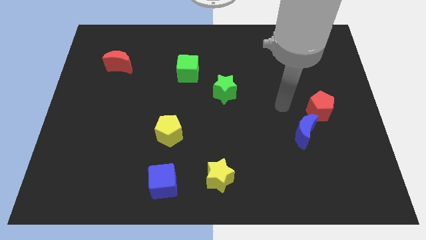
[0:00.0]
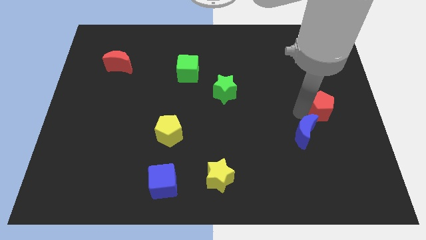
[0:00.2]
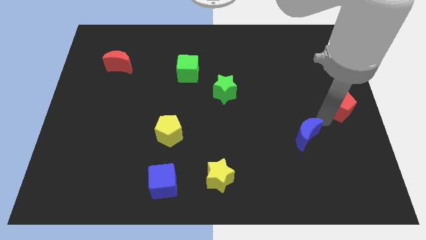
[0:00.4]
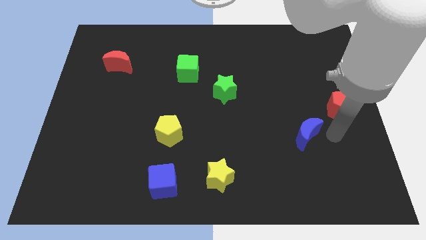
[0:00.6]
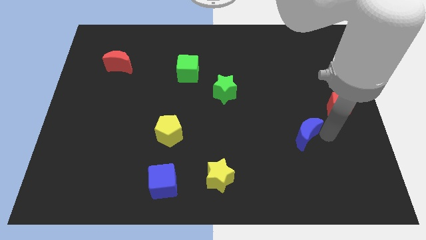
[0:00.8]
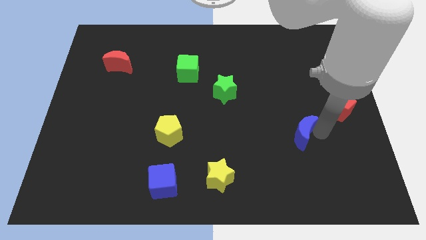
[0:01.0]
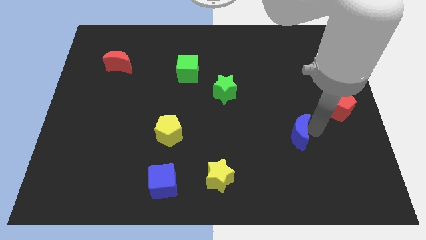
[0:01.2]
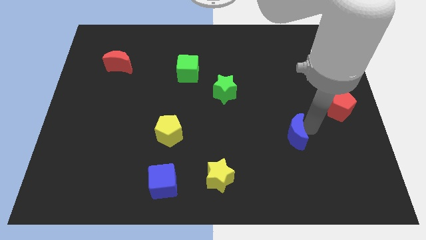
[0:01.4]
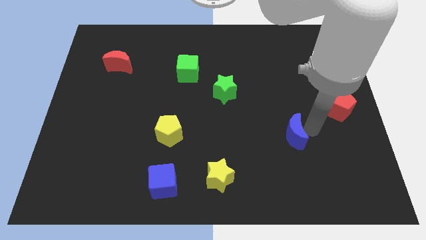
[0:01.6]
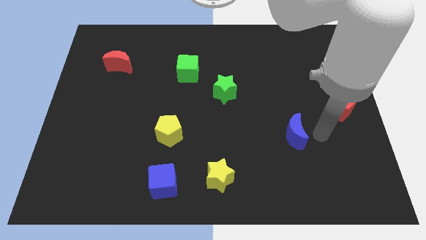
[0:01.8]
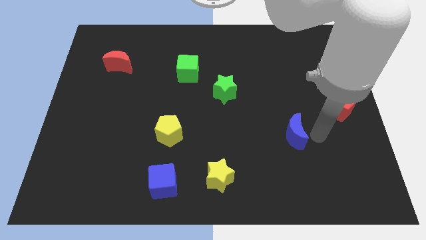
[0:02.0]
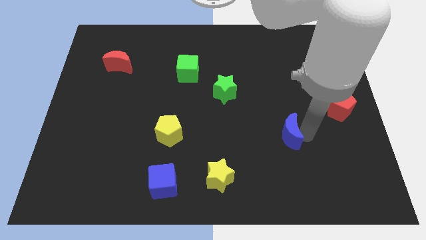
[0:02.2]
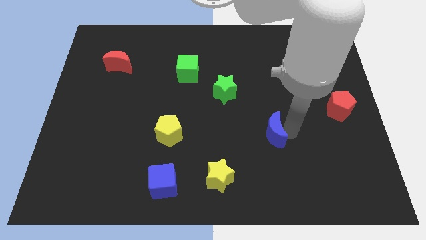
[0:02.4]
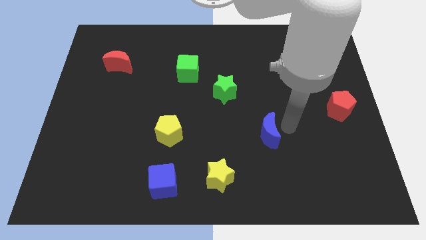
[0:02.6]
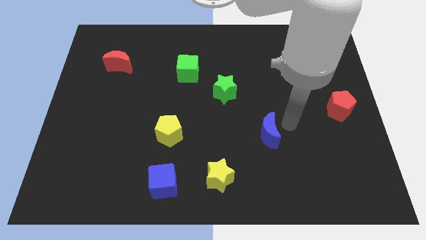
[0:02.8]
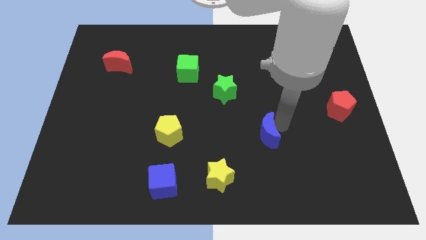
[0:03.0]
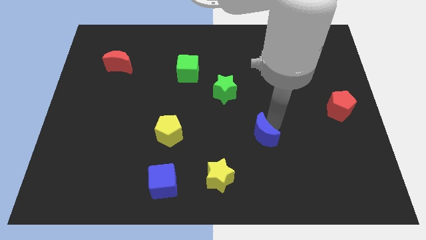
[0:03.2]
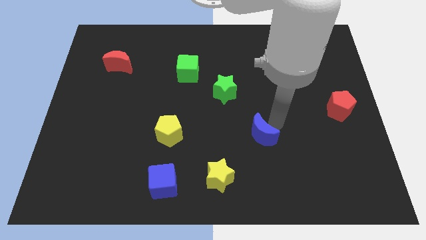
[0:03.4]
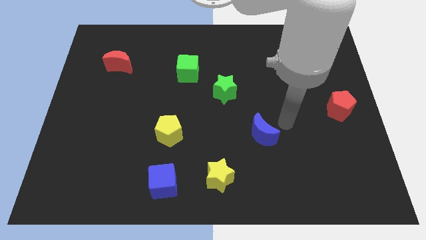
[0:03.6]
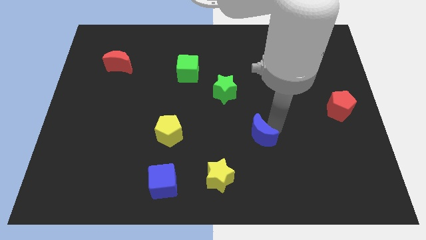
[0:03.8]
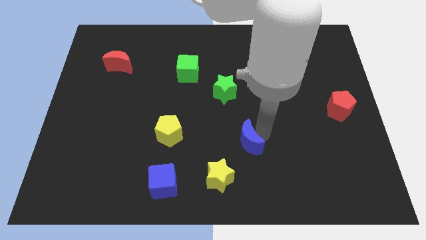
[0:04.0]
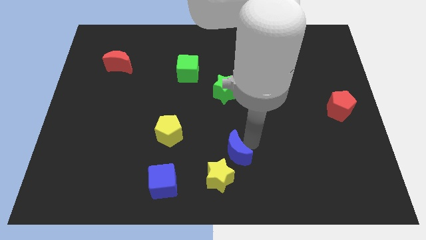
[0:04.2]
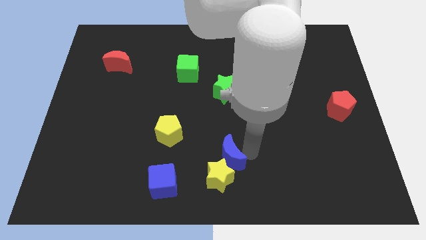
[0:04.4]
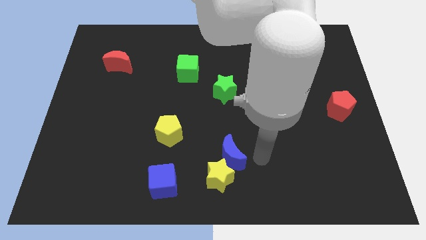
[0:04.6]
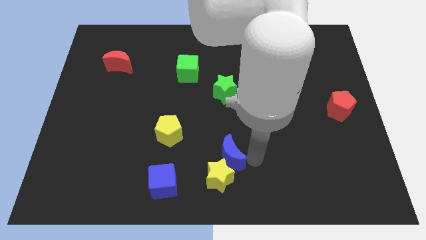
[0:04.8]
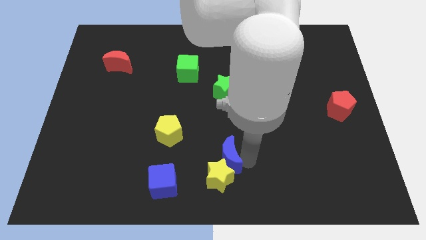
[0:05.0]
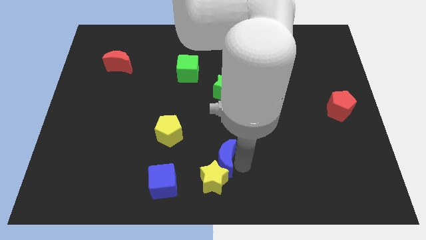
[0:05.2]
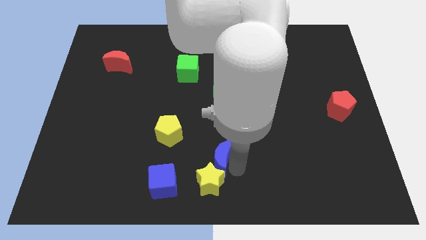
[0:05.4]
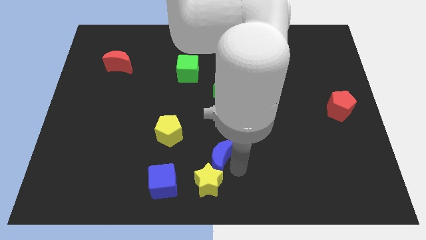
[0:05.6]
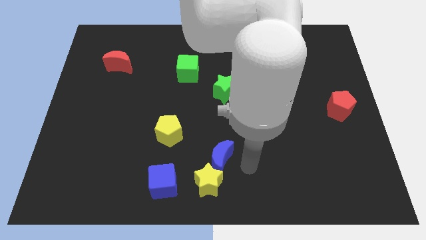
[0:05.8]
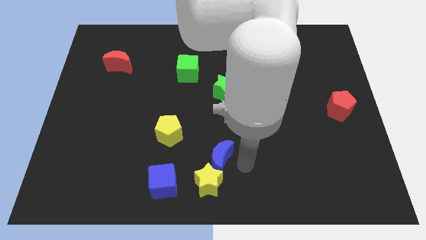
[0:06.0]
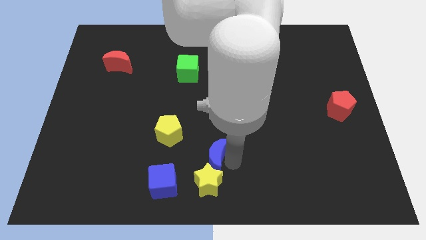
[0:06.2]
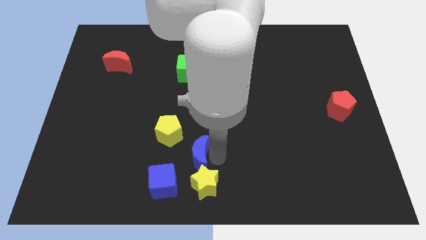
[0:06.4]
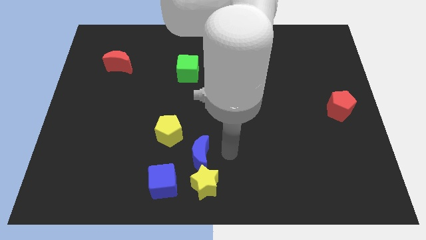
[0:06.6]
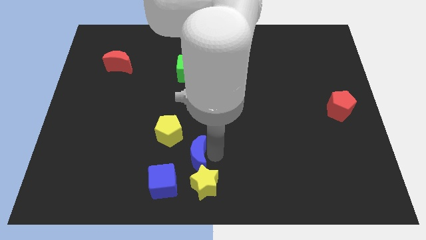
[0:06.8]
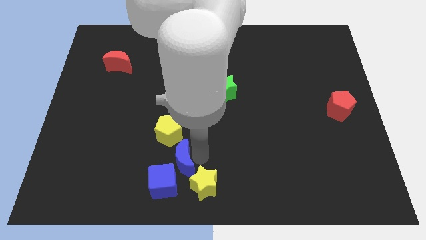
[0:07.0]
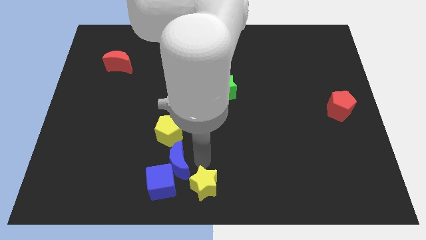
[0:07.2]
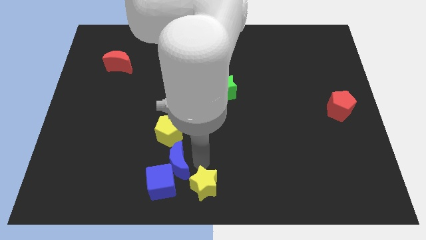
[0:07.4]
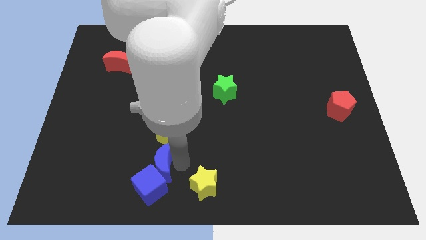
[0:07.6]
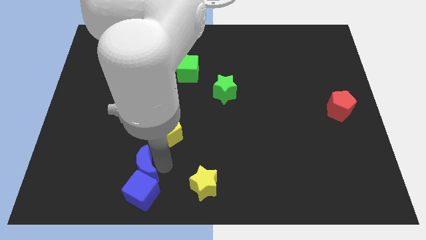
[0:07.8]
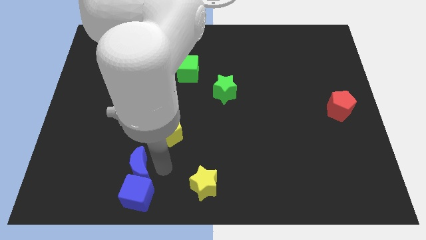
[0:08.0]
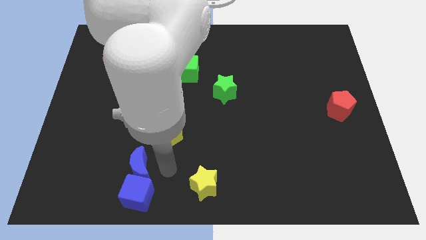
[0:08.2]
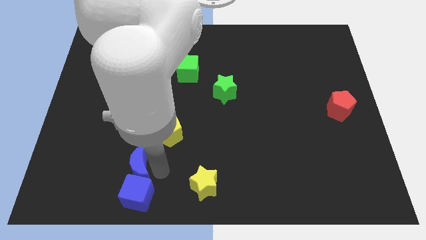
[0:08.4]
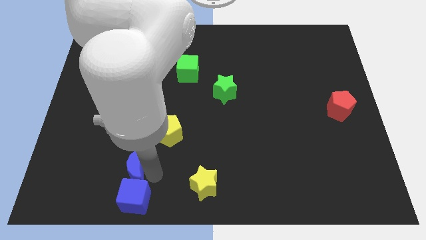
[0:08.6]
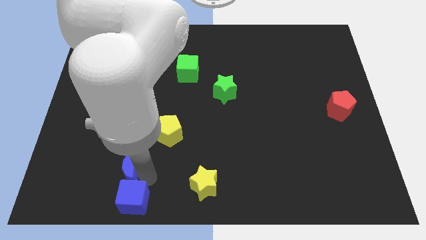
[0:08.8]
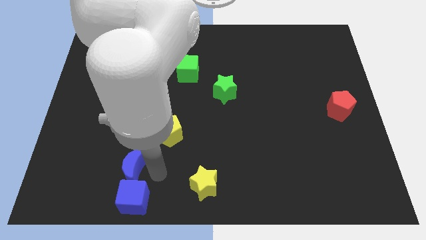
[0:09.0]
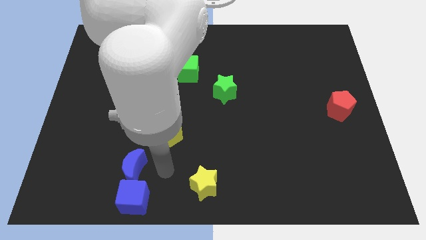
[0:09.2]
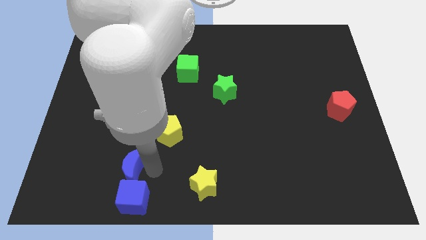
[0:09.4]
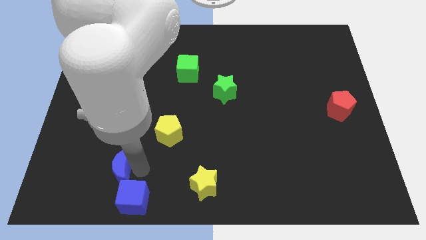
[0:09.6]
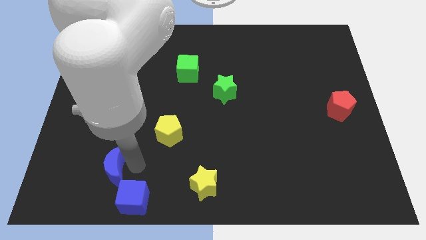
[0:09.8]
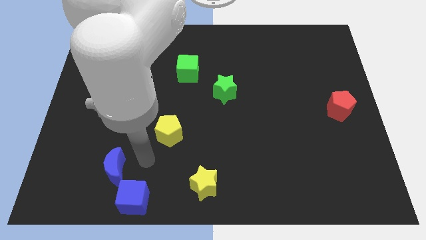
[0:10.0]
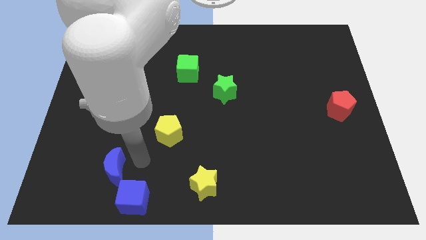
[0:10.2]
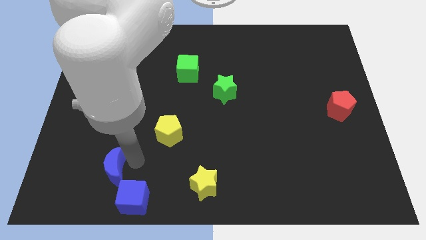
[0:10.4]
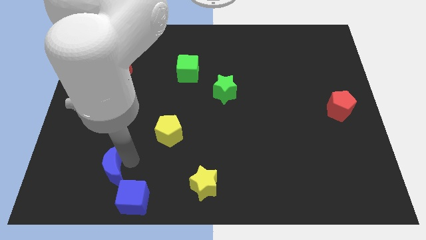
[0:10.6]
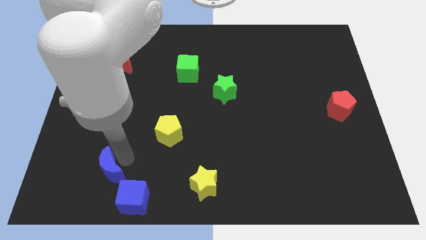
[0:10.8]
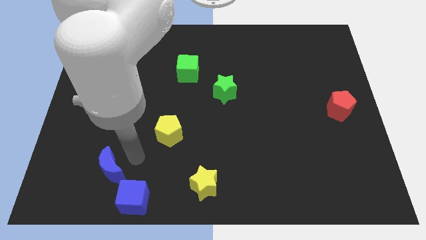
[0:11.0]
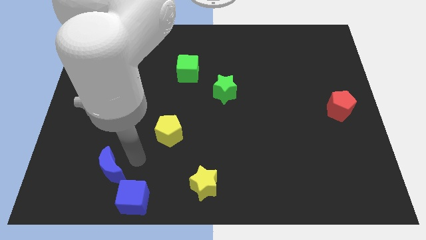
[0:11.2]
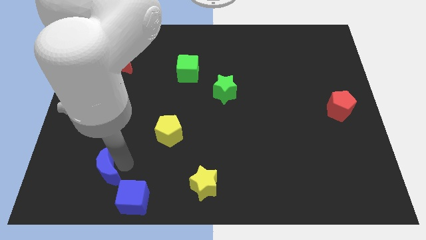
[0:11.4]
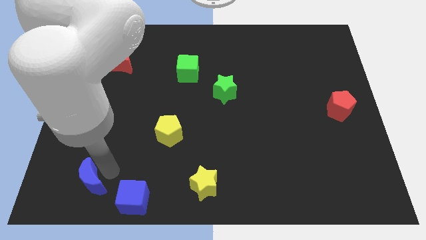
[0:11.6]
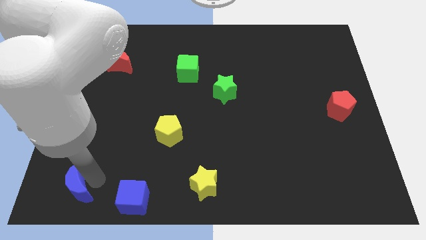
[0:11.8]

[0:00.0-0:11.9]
put the blue moon to the bottom left
